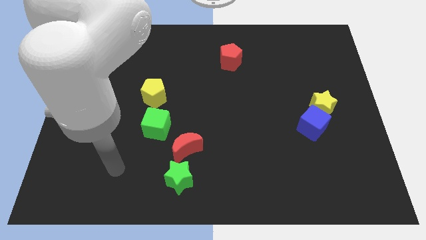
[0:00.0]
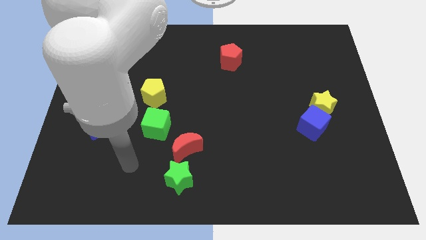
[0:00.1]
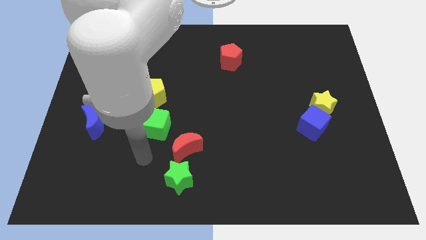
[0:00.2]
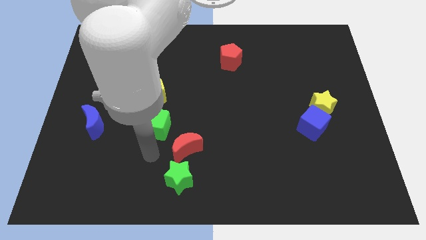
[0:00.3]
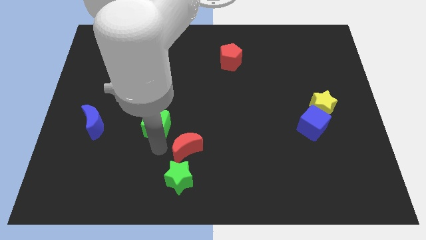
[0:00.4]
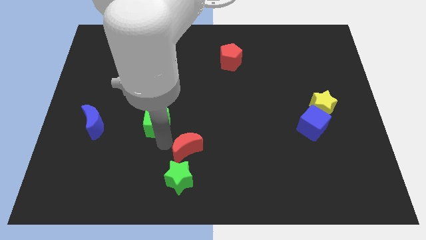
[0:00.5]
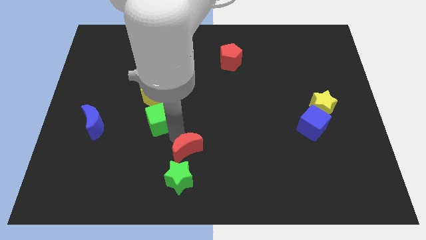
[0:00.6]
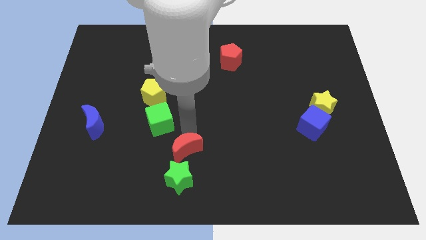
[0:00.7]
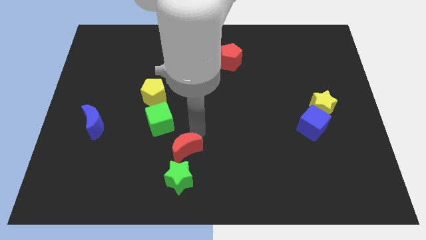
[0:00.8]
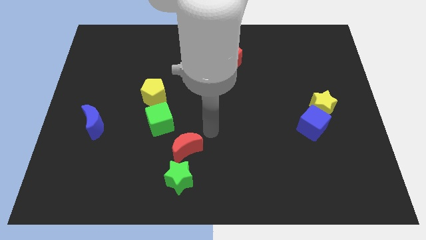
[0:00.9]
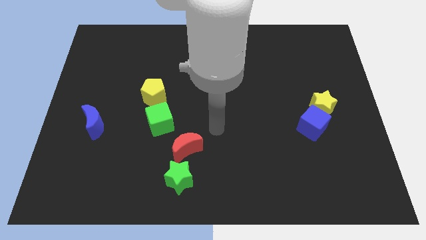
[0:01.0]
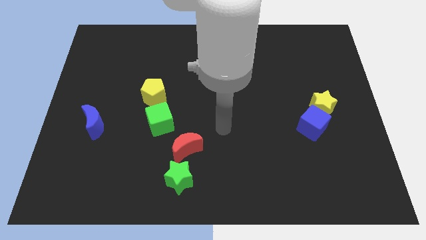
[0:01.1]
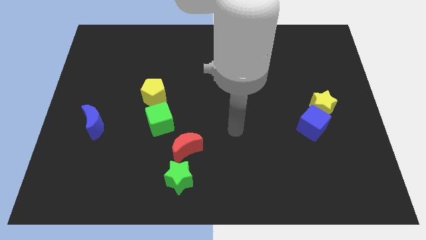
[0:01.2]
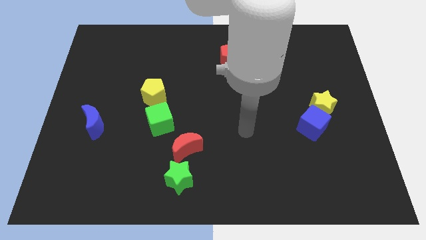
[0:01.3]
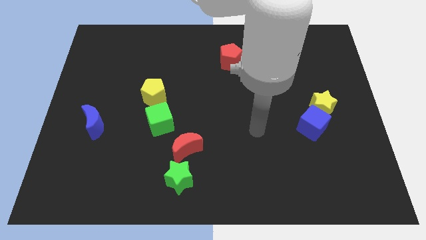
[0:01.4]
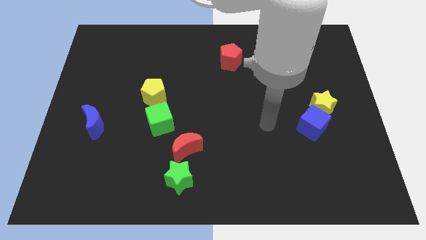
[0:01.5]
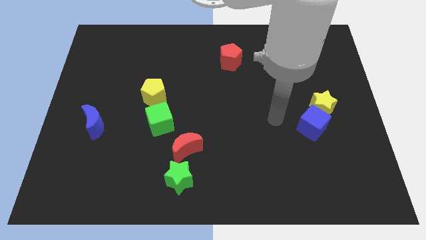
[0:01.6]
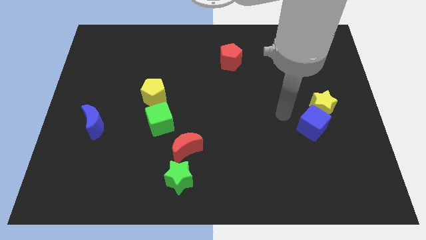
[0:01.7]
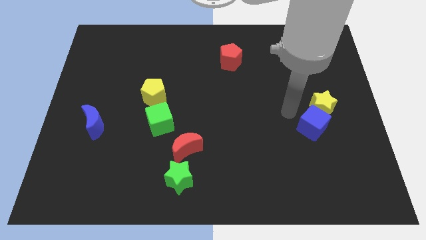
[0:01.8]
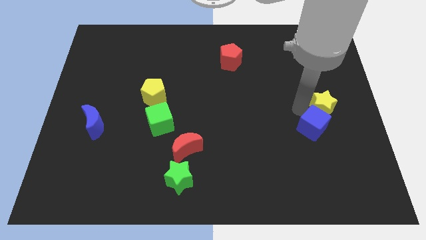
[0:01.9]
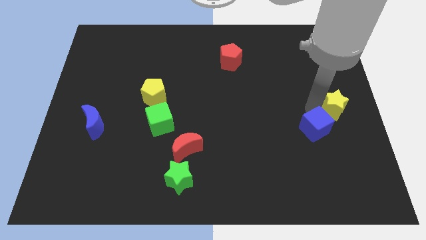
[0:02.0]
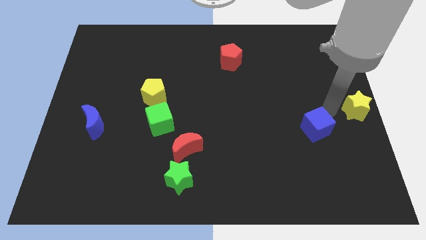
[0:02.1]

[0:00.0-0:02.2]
move the blue cube away from the yellow star

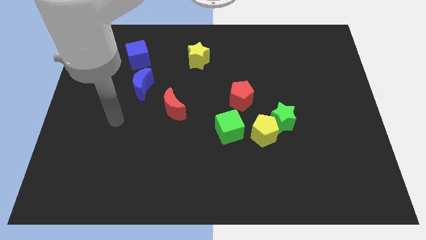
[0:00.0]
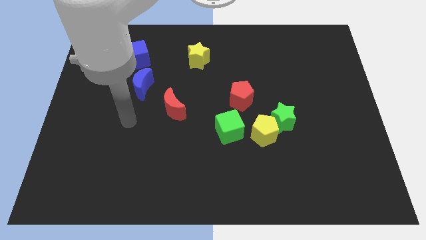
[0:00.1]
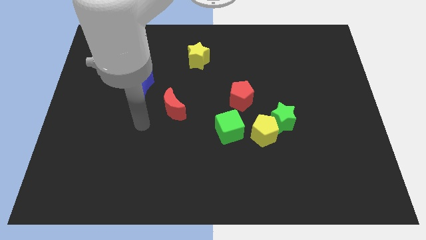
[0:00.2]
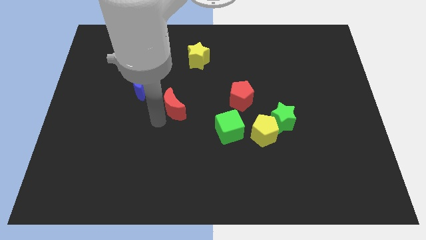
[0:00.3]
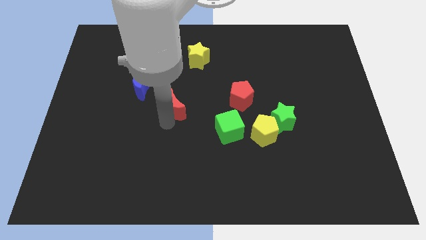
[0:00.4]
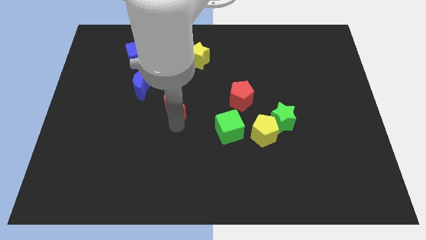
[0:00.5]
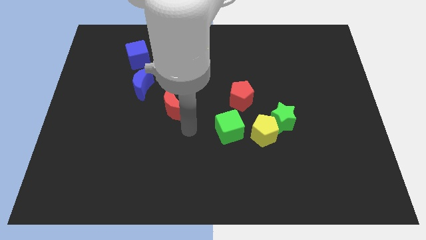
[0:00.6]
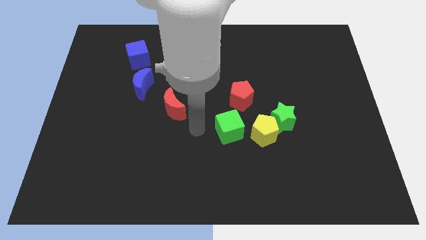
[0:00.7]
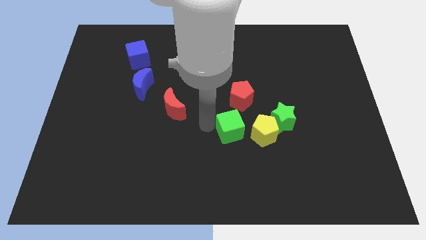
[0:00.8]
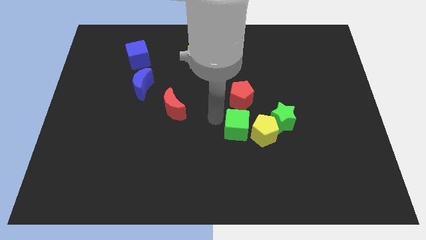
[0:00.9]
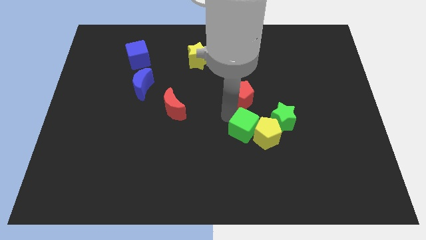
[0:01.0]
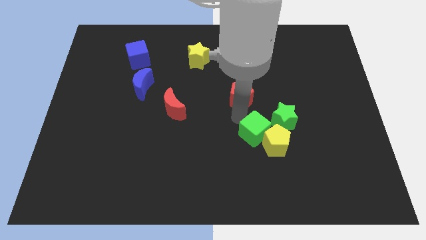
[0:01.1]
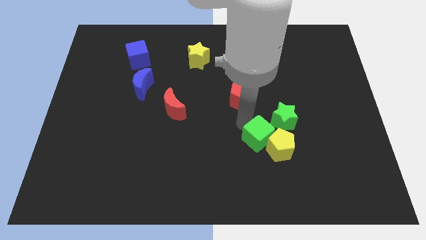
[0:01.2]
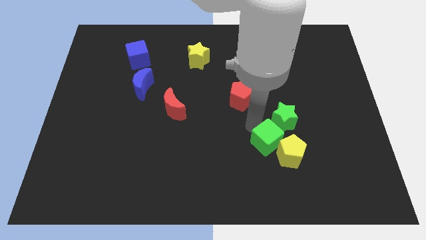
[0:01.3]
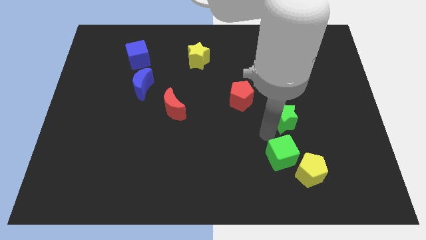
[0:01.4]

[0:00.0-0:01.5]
separate the green star from the yellow pentagon

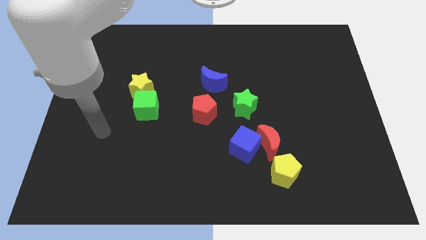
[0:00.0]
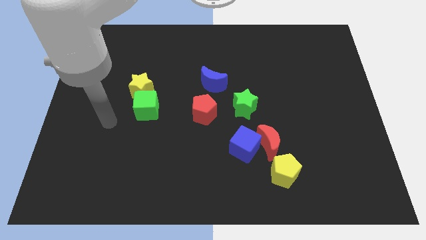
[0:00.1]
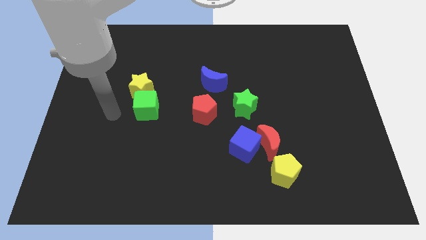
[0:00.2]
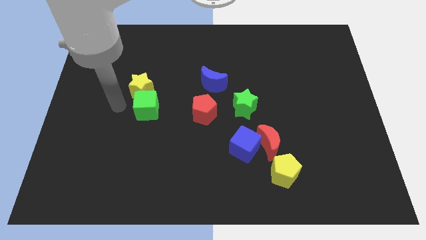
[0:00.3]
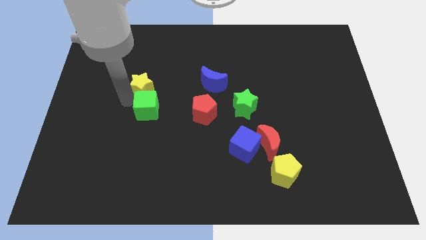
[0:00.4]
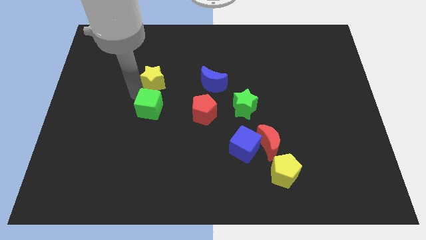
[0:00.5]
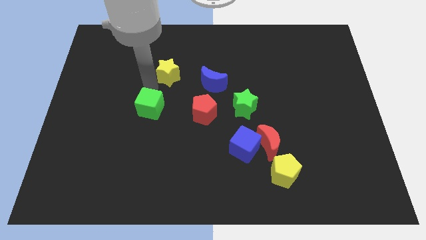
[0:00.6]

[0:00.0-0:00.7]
move the green cube away from the yellow star

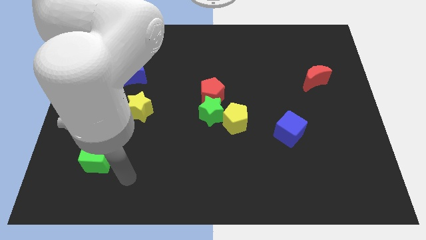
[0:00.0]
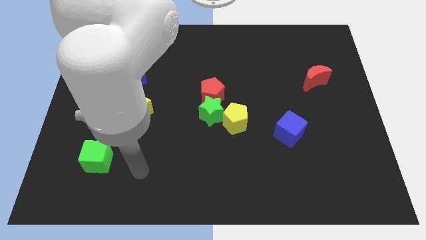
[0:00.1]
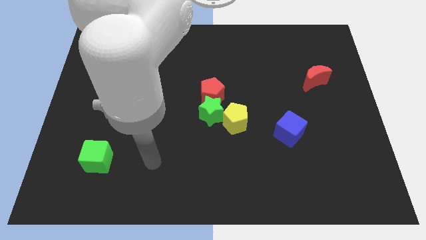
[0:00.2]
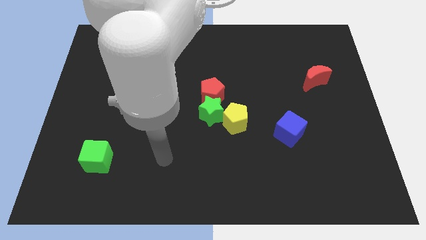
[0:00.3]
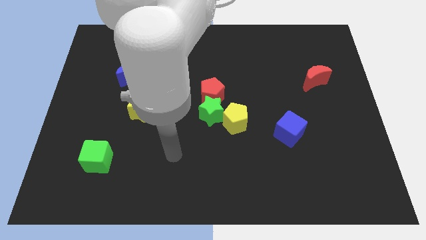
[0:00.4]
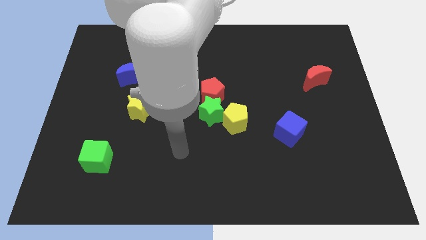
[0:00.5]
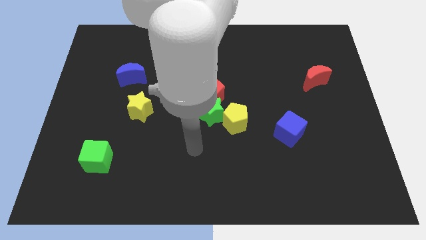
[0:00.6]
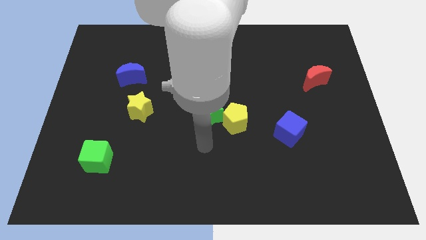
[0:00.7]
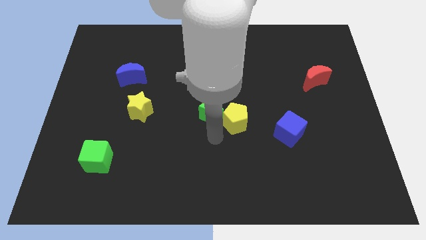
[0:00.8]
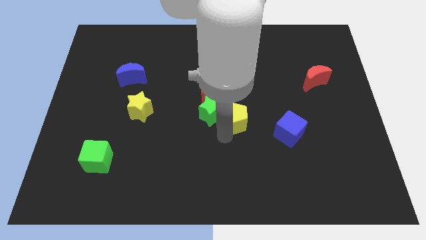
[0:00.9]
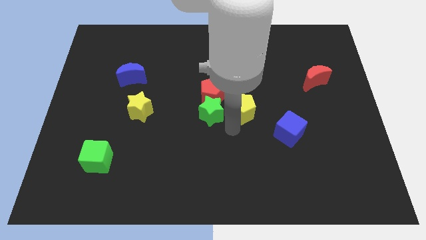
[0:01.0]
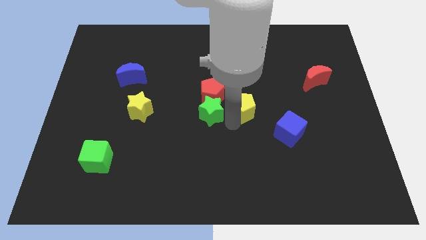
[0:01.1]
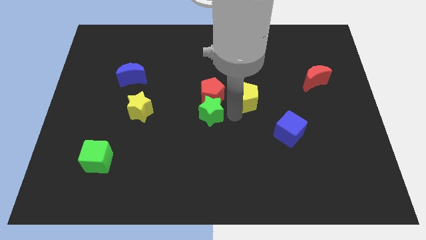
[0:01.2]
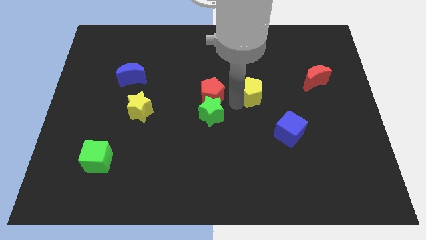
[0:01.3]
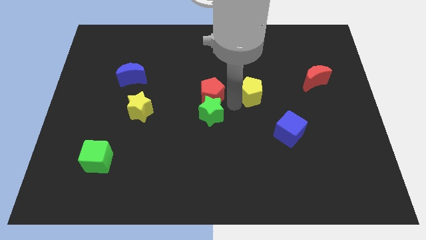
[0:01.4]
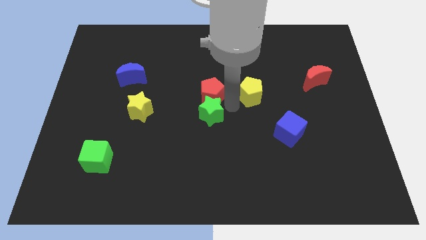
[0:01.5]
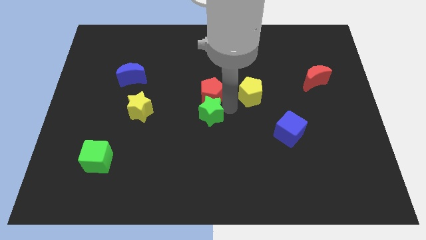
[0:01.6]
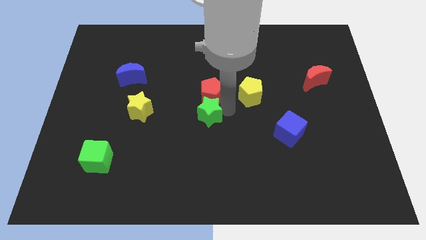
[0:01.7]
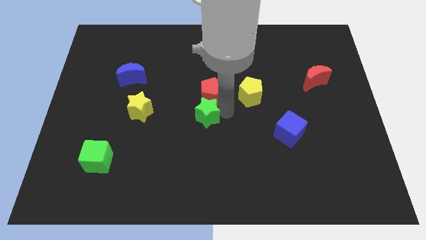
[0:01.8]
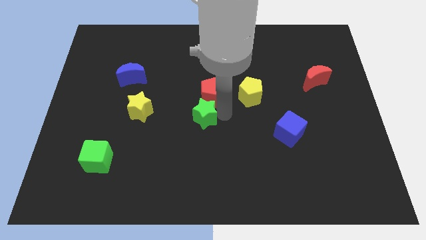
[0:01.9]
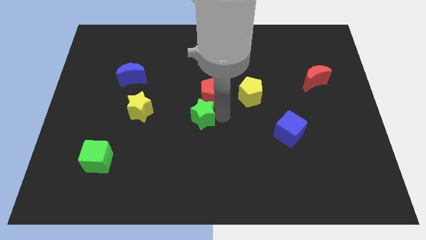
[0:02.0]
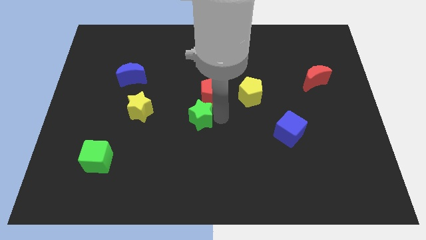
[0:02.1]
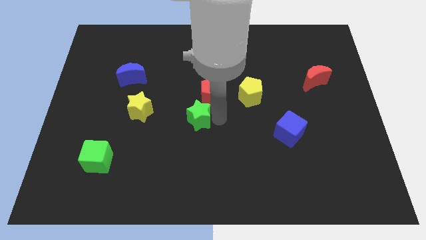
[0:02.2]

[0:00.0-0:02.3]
separate the green star from the red pentagon and yellow pentagon

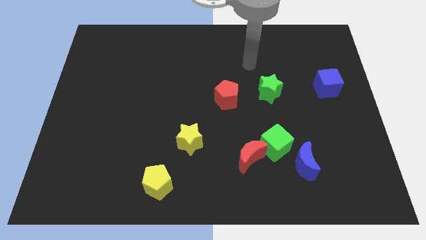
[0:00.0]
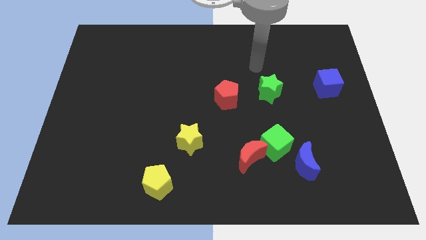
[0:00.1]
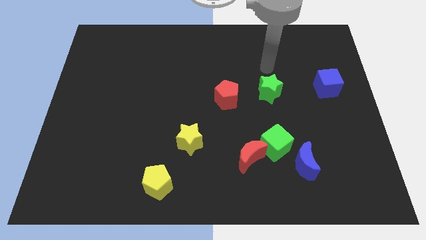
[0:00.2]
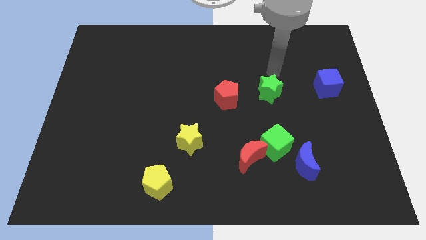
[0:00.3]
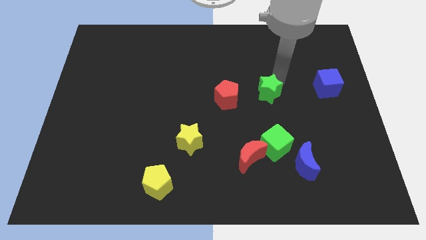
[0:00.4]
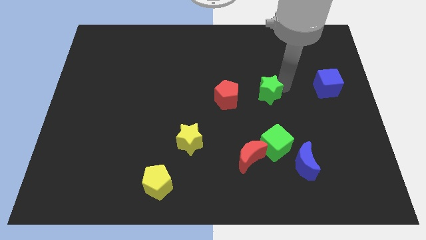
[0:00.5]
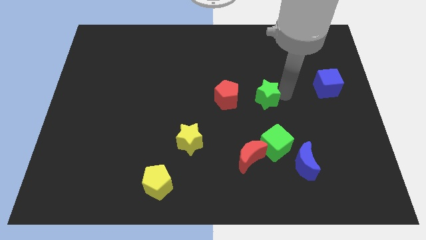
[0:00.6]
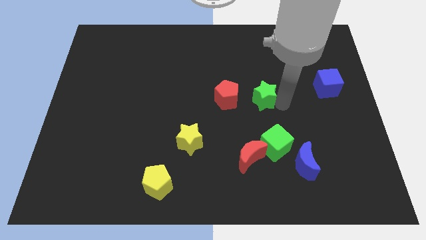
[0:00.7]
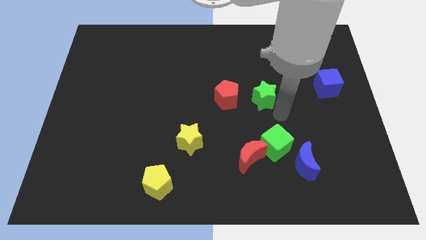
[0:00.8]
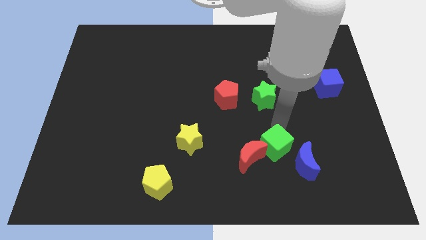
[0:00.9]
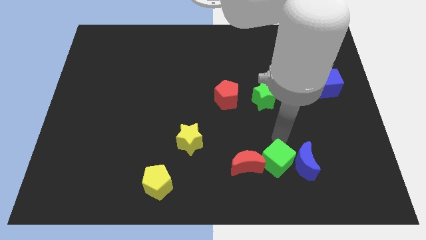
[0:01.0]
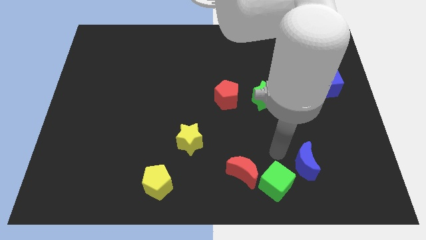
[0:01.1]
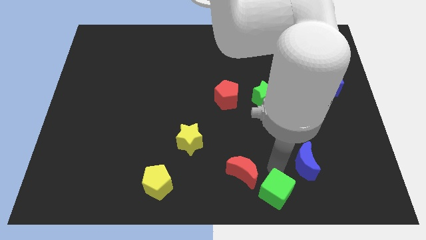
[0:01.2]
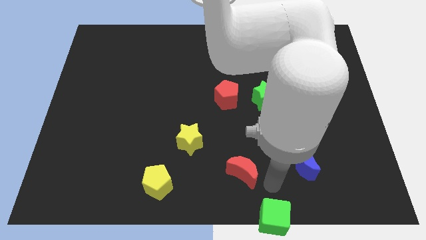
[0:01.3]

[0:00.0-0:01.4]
pull the red moon apart from the green cube

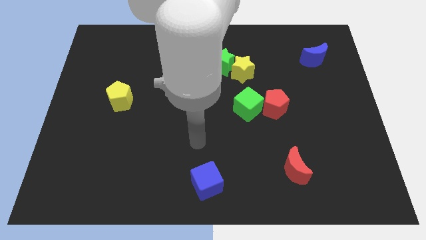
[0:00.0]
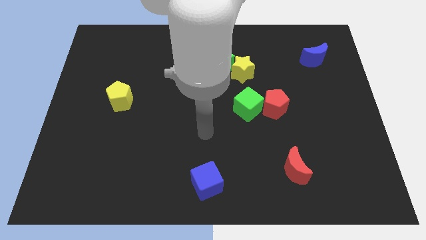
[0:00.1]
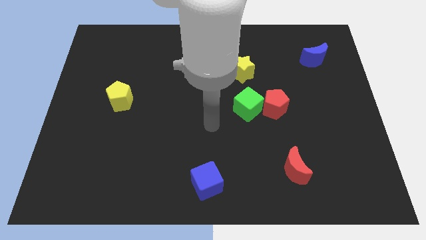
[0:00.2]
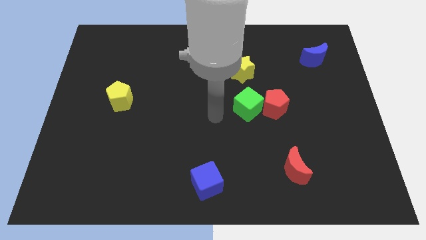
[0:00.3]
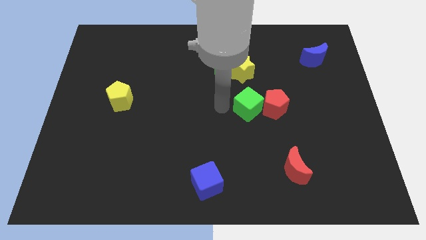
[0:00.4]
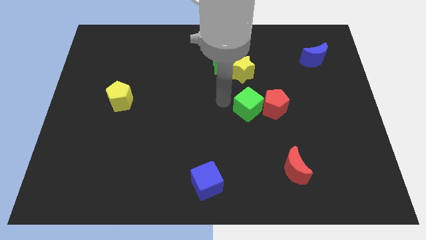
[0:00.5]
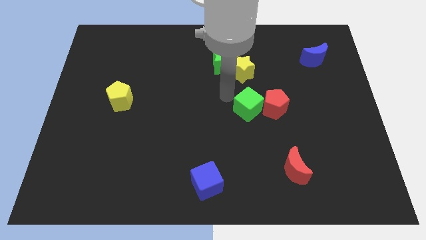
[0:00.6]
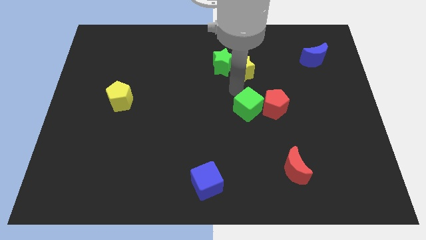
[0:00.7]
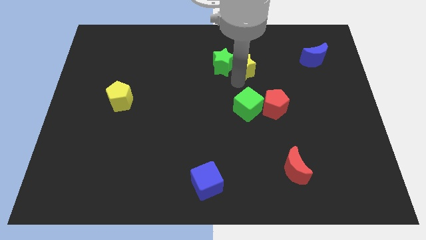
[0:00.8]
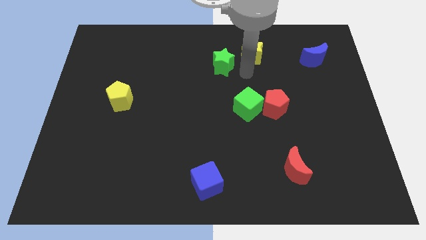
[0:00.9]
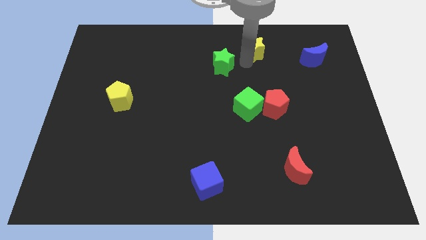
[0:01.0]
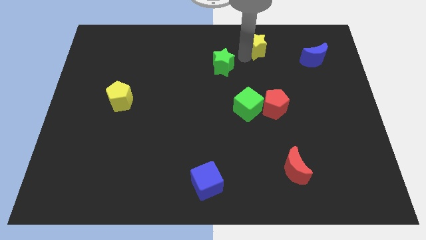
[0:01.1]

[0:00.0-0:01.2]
pull the green star apart from the yellow star
